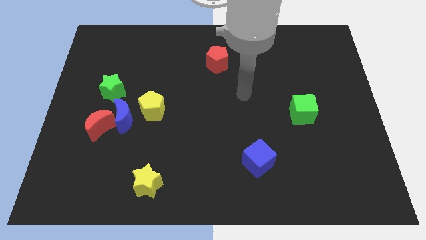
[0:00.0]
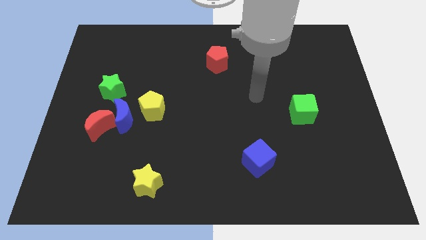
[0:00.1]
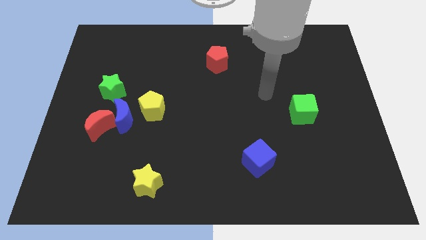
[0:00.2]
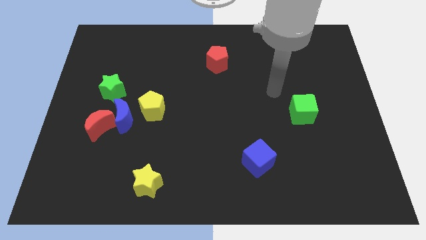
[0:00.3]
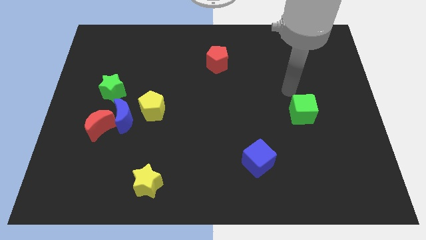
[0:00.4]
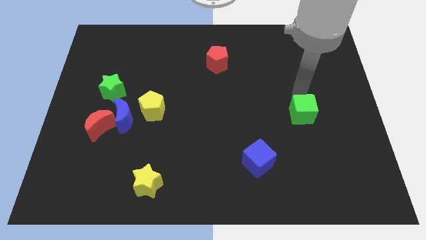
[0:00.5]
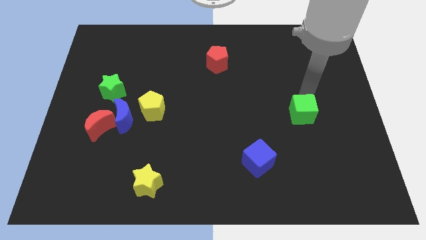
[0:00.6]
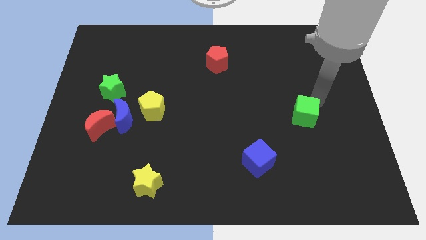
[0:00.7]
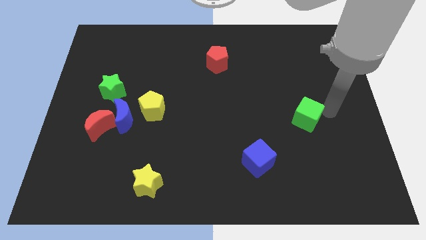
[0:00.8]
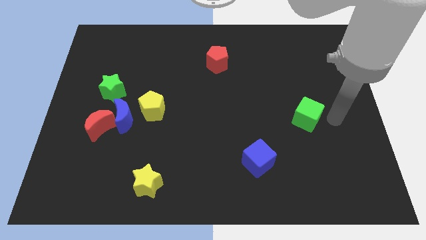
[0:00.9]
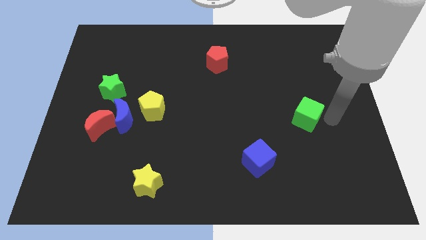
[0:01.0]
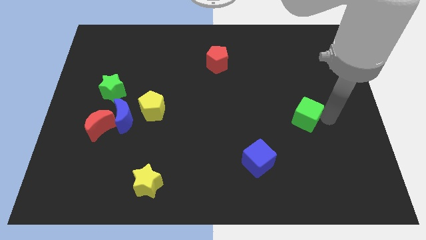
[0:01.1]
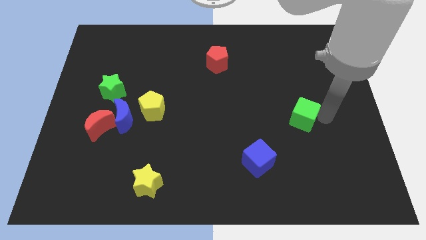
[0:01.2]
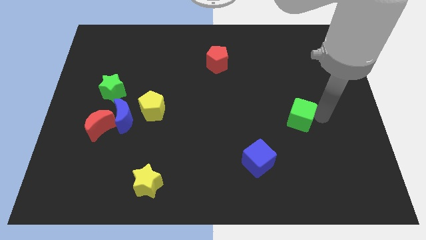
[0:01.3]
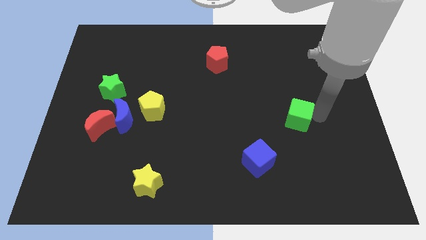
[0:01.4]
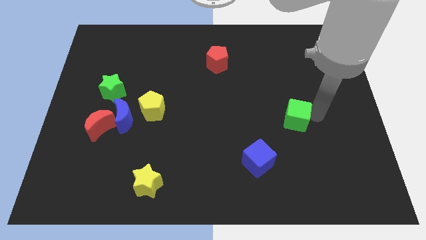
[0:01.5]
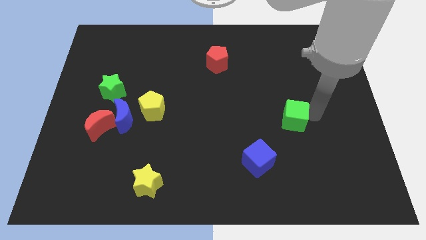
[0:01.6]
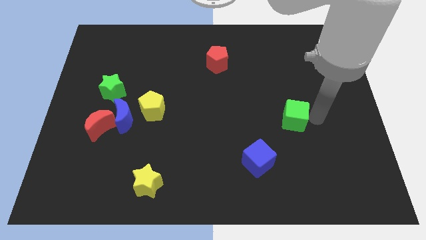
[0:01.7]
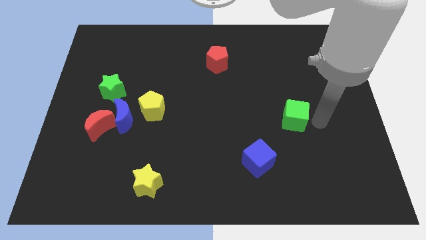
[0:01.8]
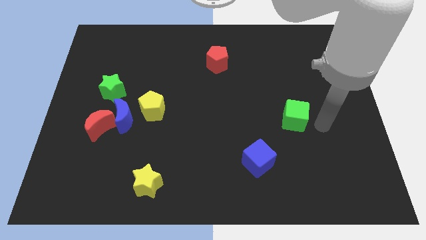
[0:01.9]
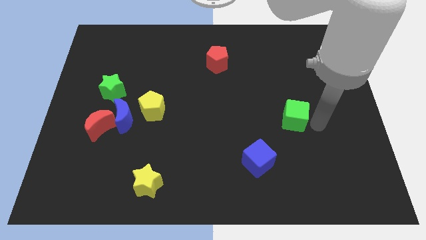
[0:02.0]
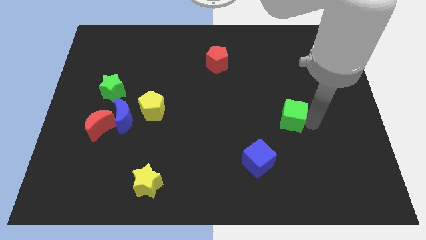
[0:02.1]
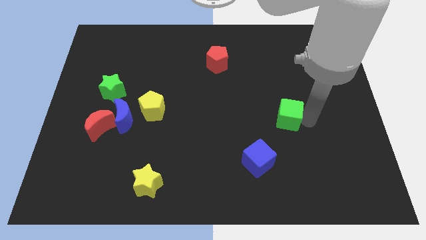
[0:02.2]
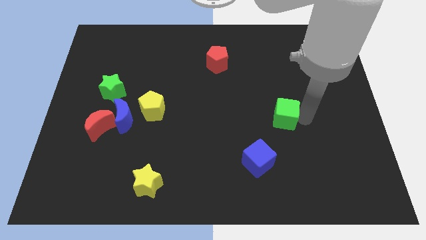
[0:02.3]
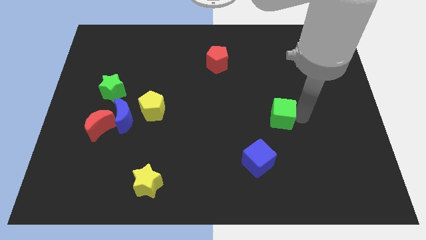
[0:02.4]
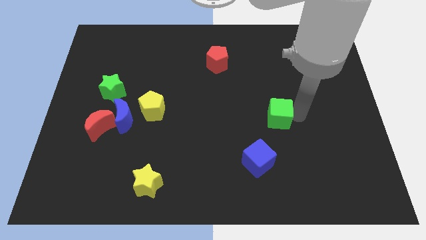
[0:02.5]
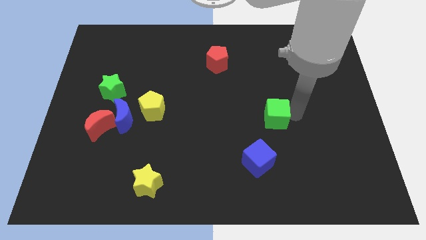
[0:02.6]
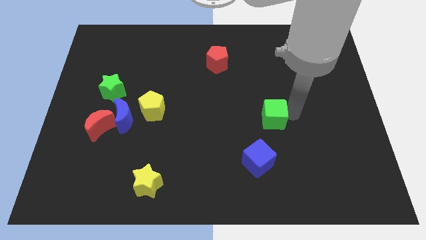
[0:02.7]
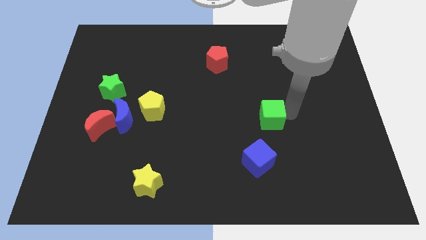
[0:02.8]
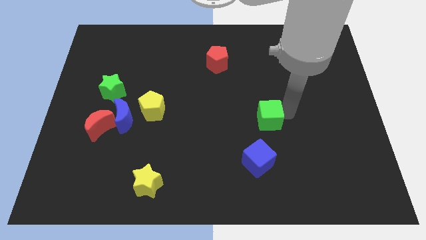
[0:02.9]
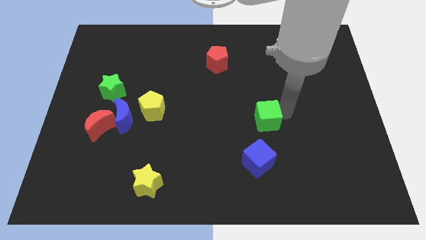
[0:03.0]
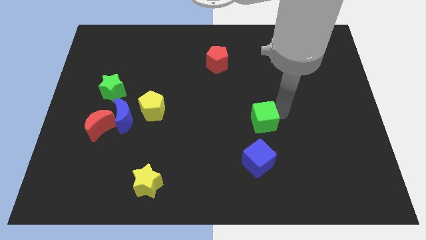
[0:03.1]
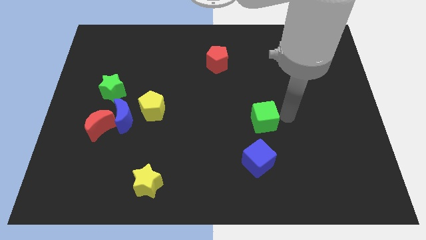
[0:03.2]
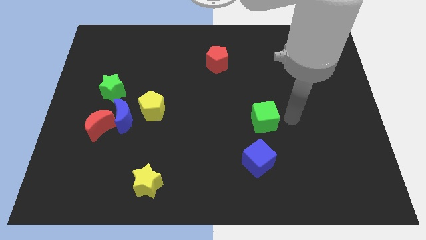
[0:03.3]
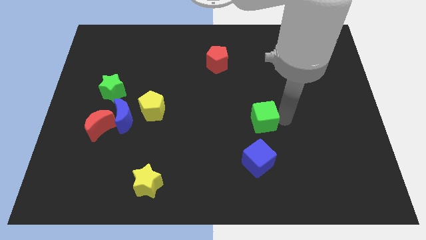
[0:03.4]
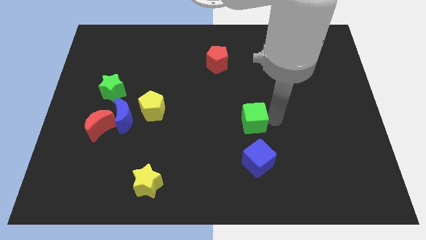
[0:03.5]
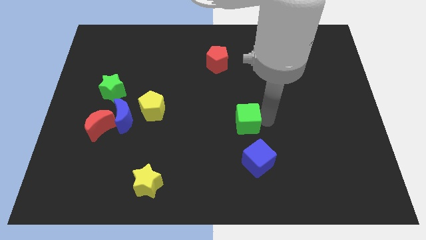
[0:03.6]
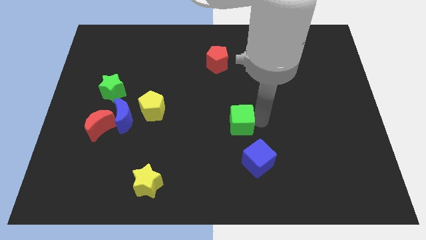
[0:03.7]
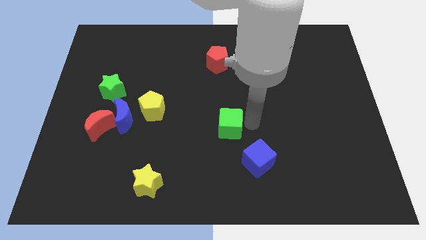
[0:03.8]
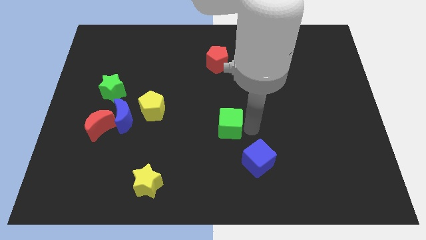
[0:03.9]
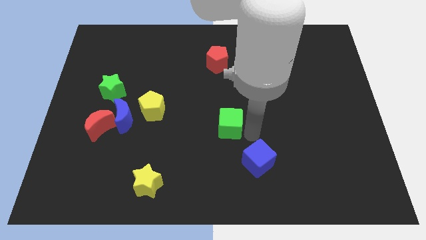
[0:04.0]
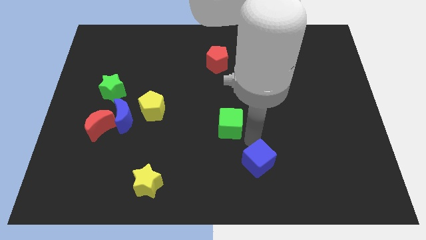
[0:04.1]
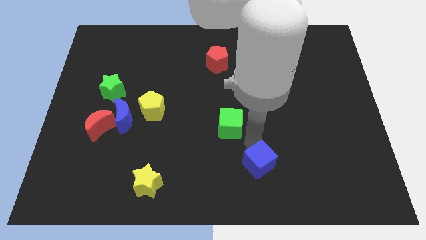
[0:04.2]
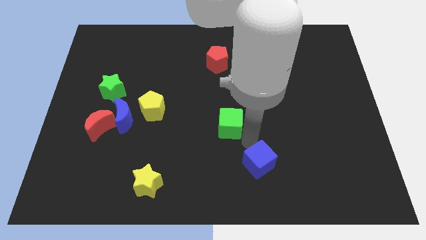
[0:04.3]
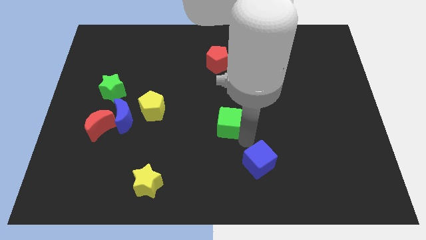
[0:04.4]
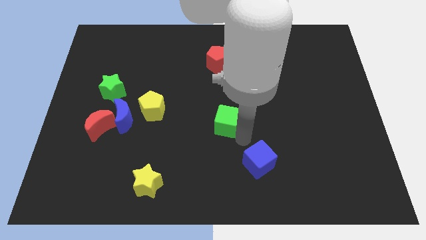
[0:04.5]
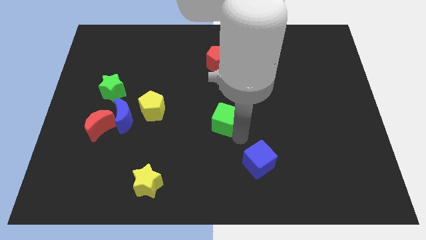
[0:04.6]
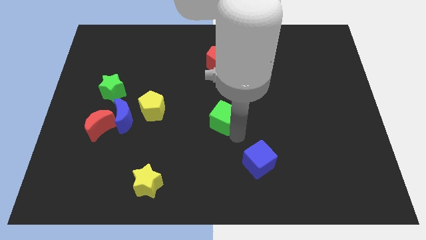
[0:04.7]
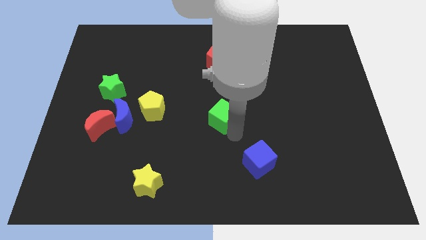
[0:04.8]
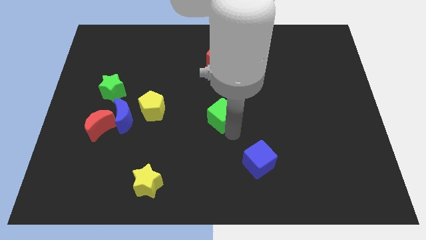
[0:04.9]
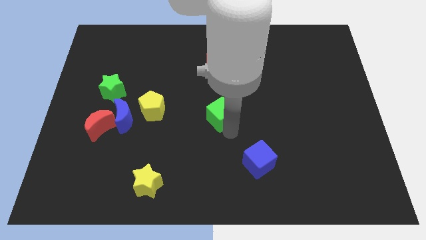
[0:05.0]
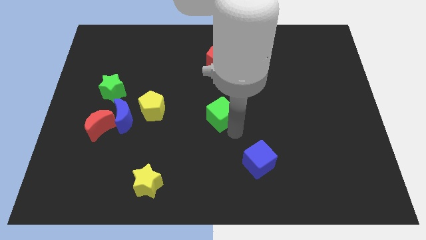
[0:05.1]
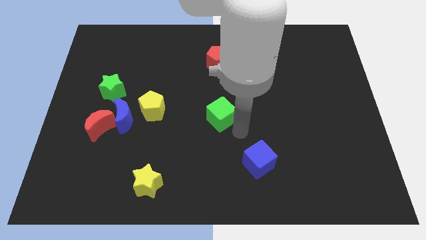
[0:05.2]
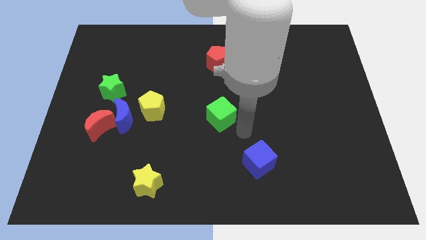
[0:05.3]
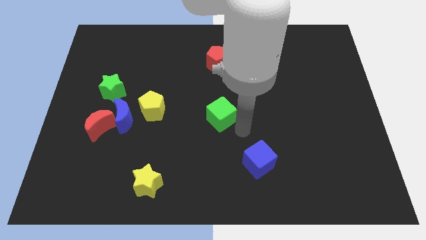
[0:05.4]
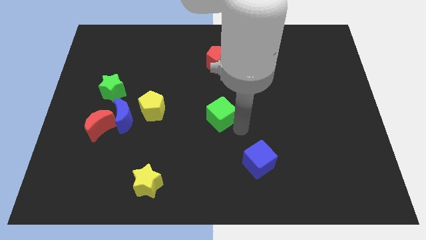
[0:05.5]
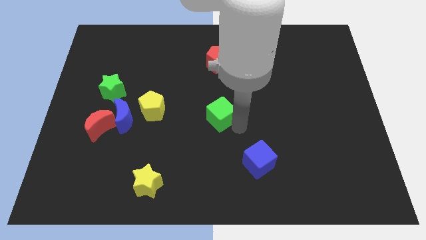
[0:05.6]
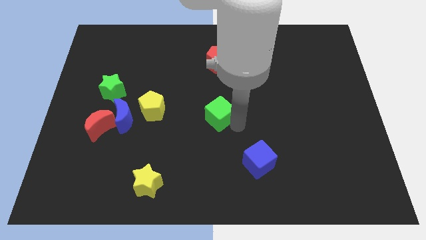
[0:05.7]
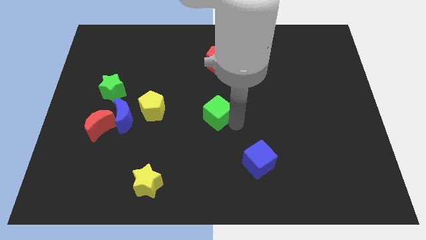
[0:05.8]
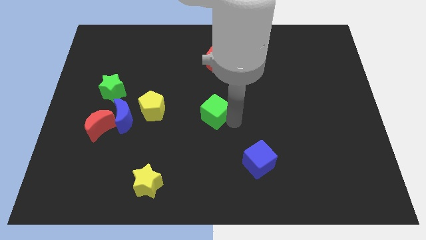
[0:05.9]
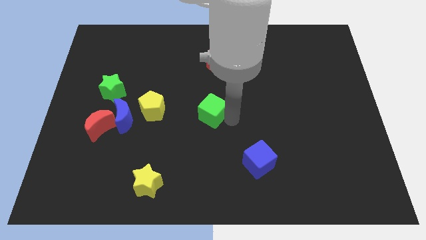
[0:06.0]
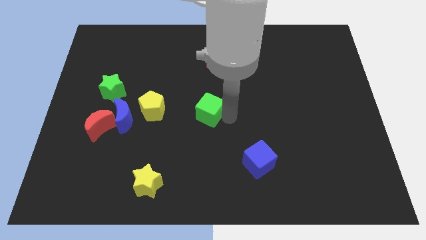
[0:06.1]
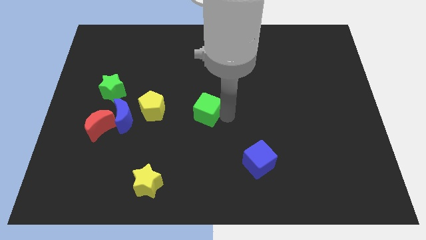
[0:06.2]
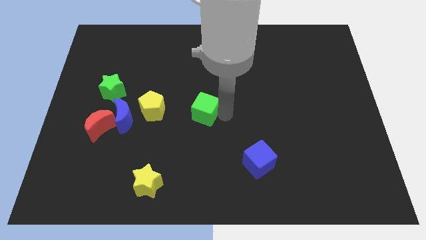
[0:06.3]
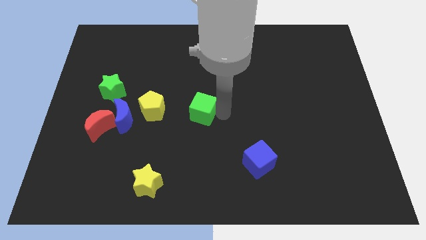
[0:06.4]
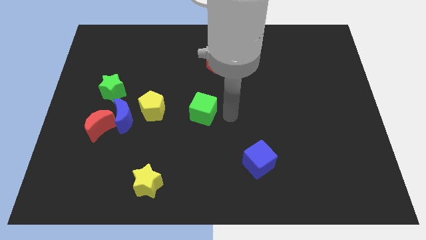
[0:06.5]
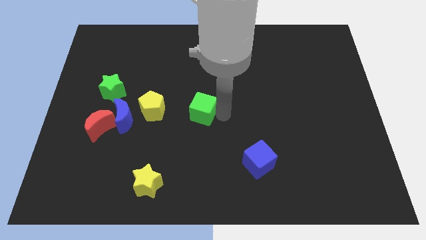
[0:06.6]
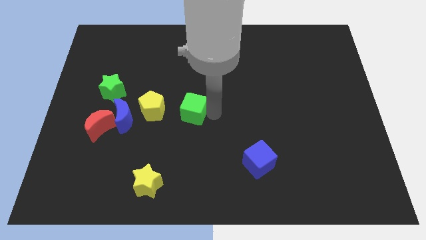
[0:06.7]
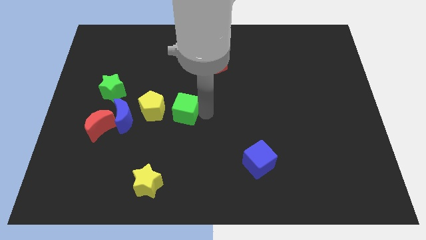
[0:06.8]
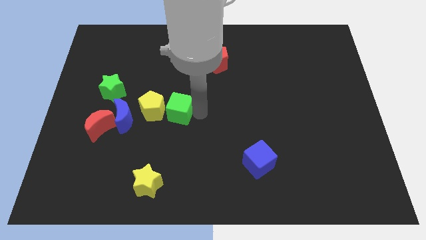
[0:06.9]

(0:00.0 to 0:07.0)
put the green cube next to the yellow pentagon
